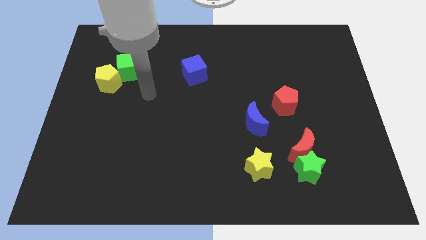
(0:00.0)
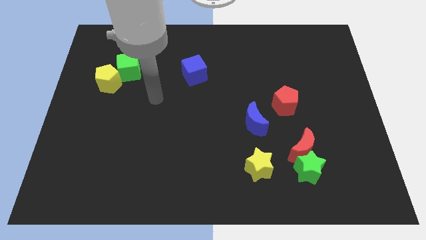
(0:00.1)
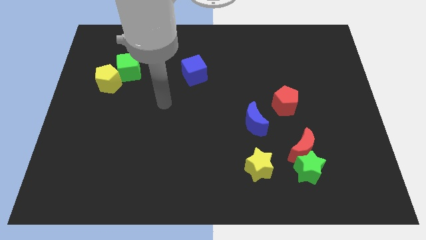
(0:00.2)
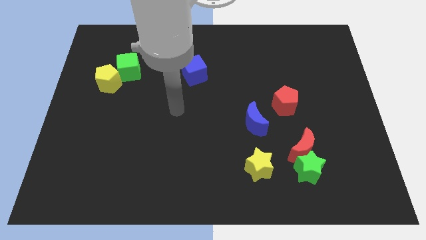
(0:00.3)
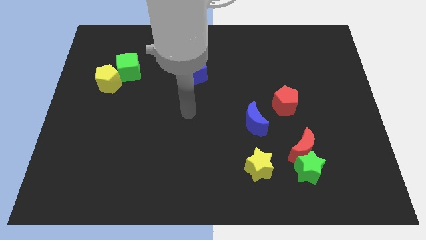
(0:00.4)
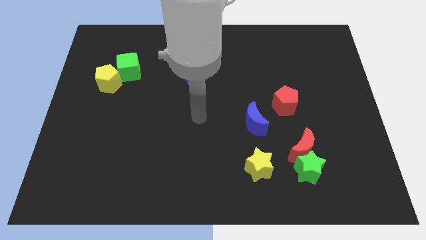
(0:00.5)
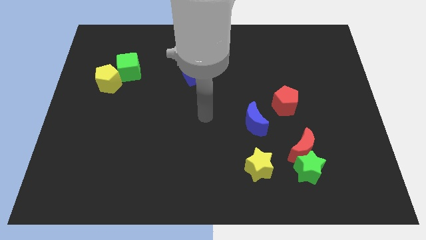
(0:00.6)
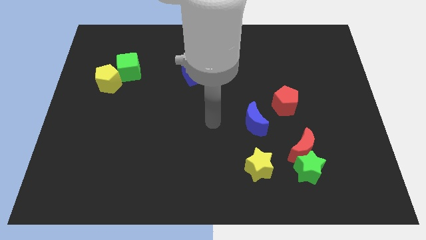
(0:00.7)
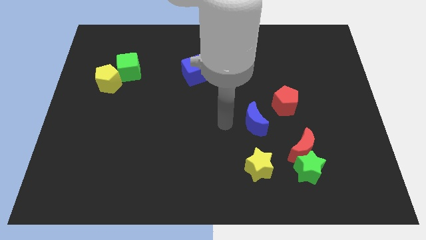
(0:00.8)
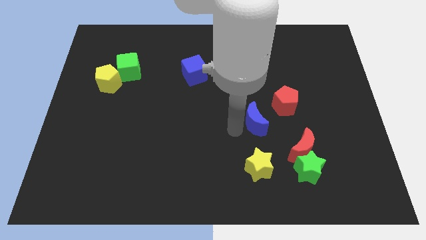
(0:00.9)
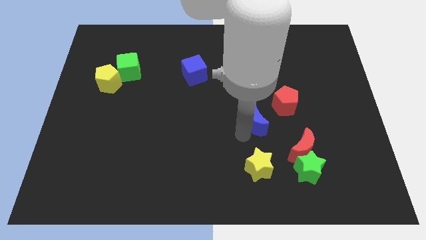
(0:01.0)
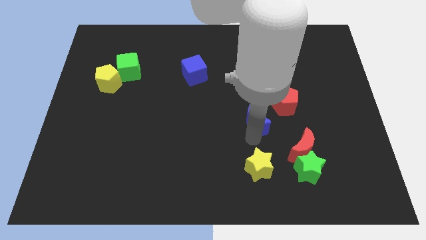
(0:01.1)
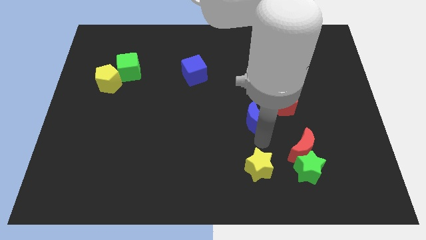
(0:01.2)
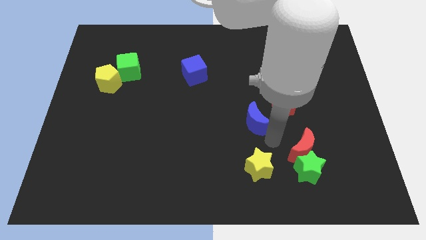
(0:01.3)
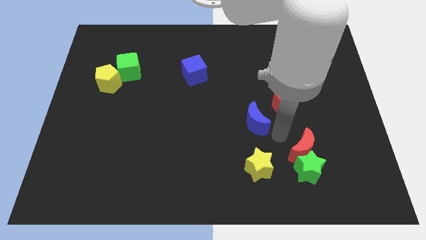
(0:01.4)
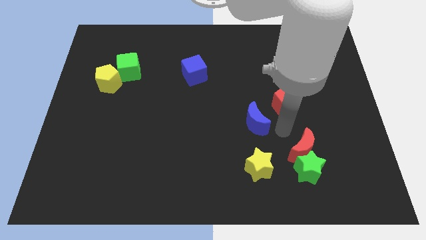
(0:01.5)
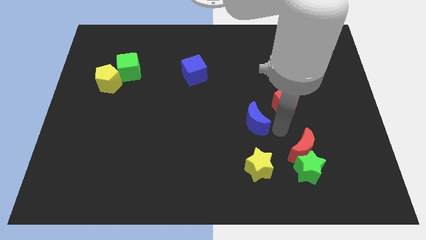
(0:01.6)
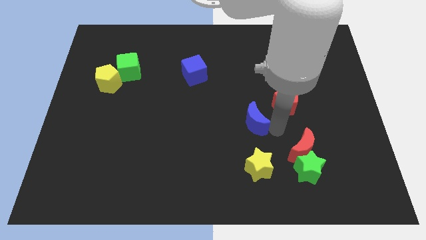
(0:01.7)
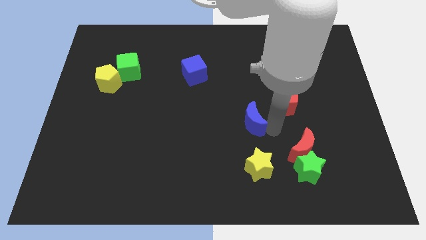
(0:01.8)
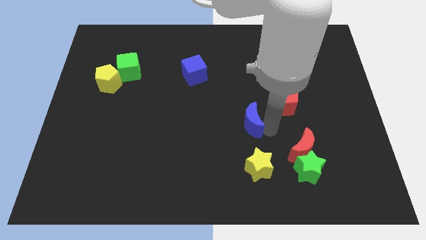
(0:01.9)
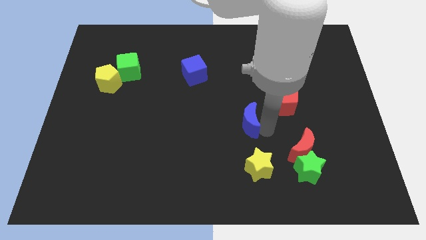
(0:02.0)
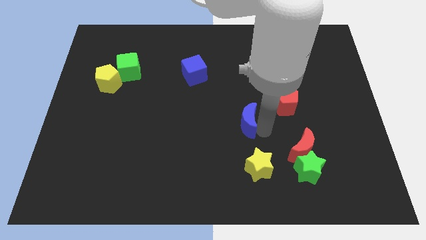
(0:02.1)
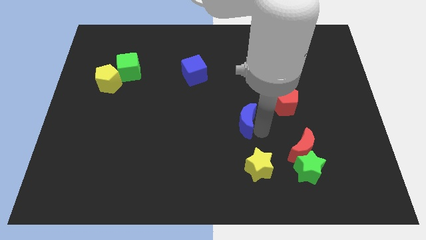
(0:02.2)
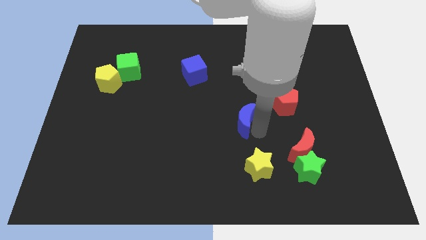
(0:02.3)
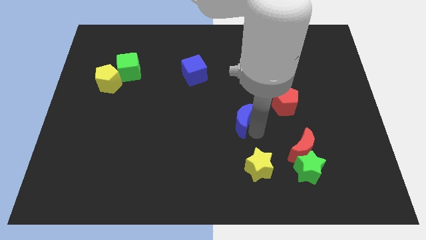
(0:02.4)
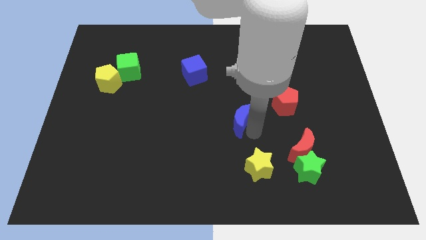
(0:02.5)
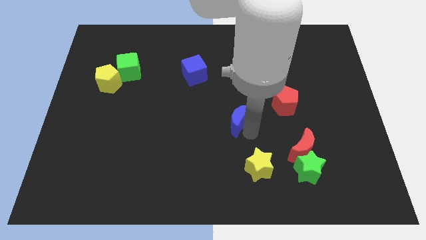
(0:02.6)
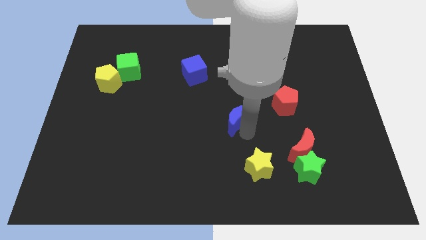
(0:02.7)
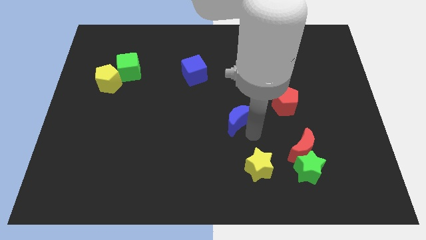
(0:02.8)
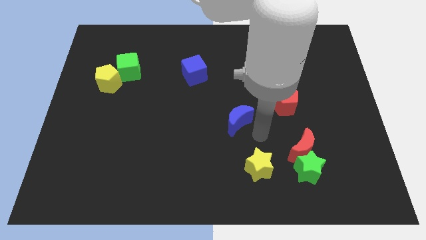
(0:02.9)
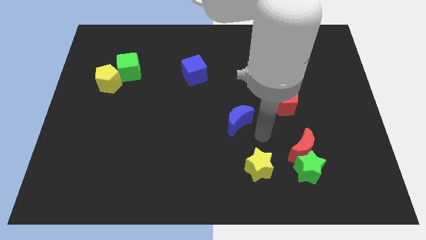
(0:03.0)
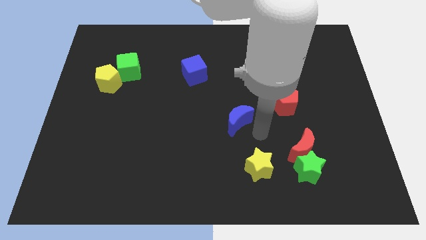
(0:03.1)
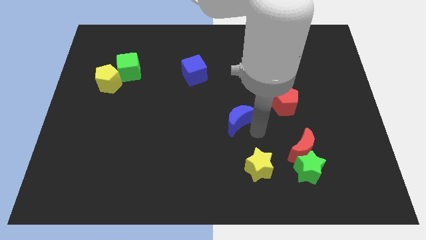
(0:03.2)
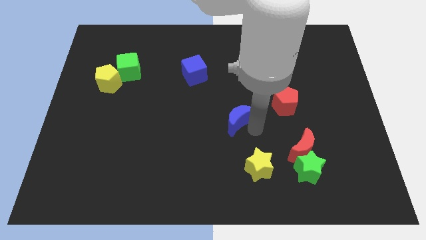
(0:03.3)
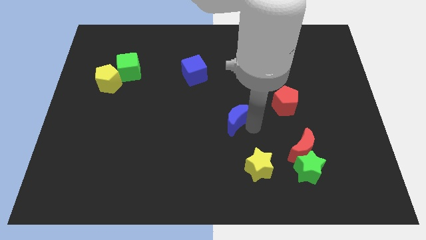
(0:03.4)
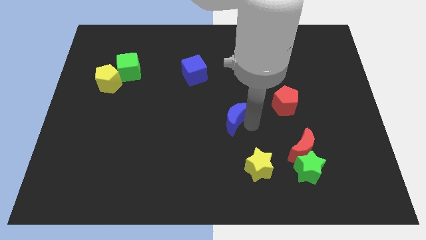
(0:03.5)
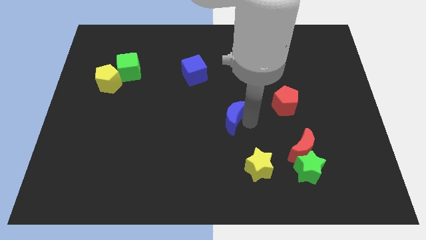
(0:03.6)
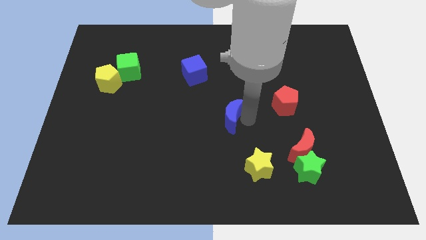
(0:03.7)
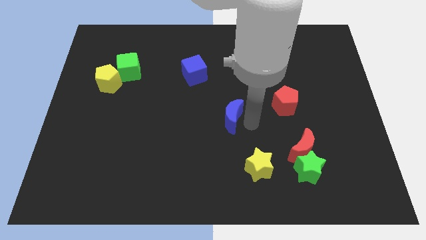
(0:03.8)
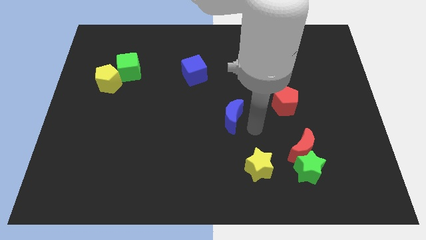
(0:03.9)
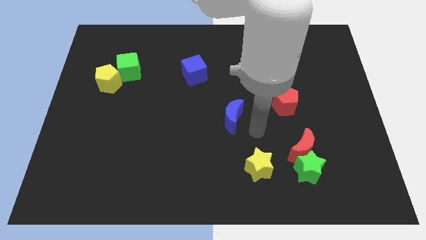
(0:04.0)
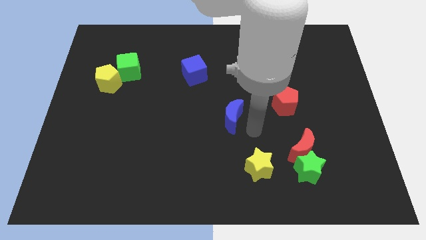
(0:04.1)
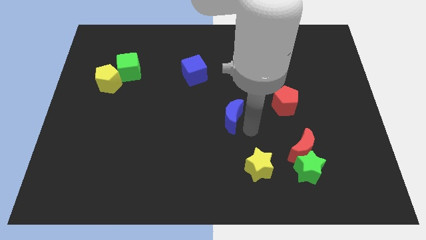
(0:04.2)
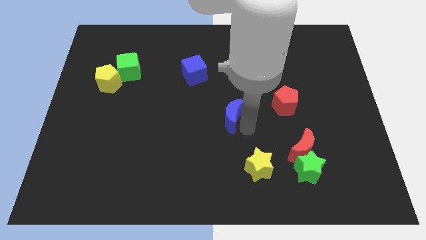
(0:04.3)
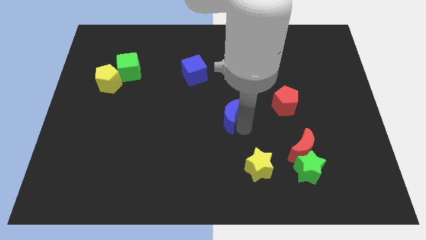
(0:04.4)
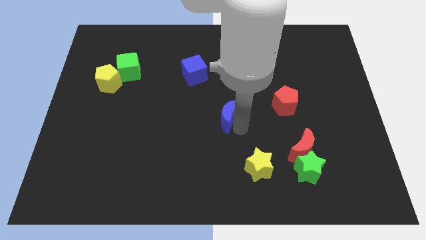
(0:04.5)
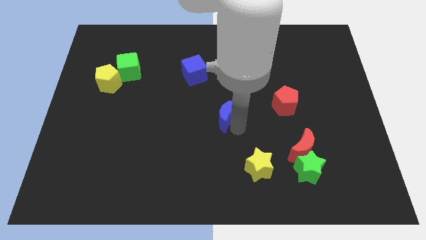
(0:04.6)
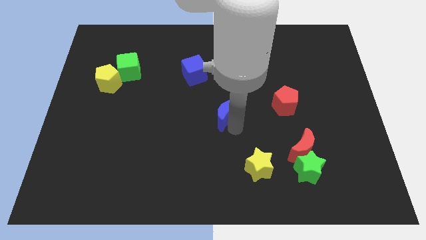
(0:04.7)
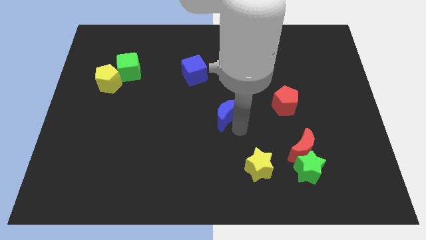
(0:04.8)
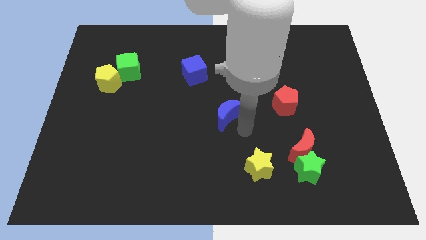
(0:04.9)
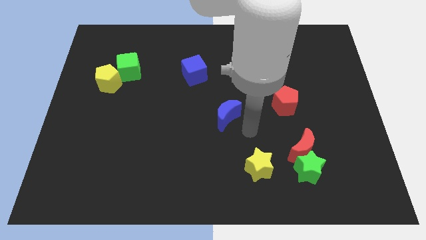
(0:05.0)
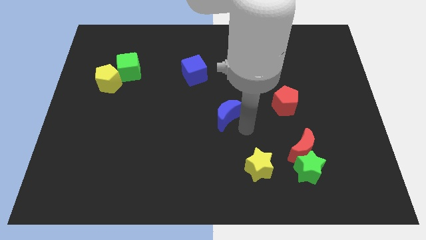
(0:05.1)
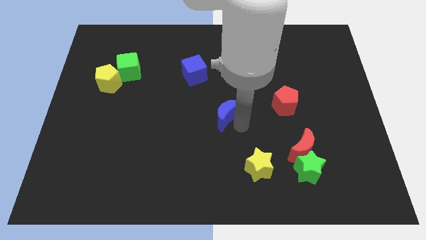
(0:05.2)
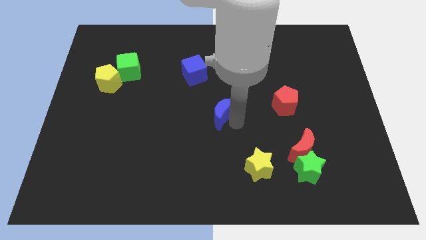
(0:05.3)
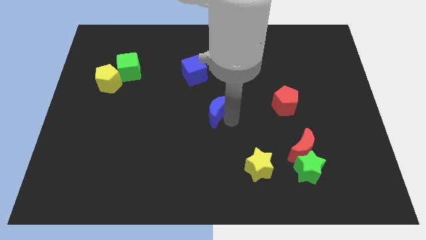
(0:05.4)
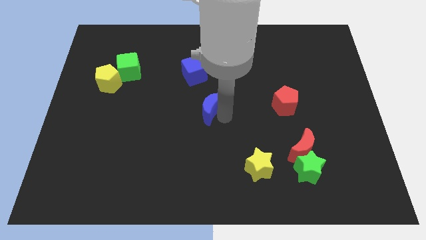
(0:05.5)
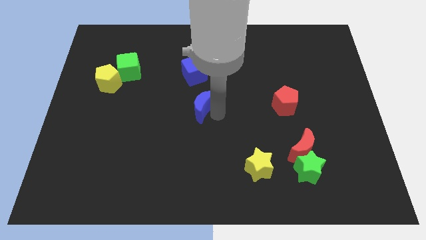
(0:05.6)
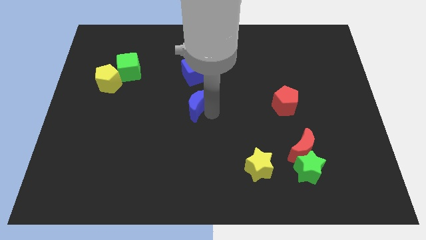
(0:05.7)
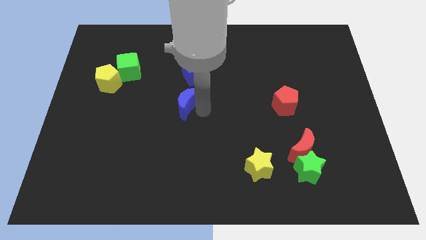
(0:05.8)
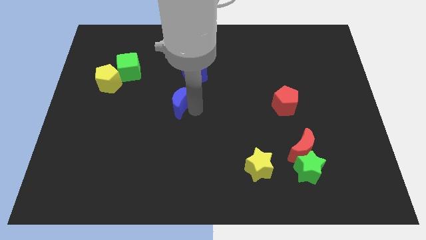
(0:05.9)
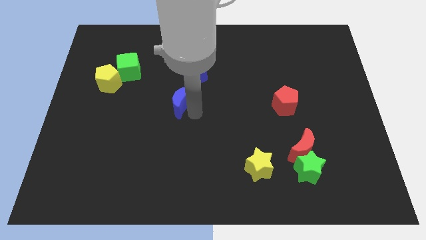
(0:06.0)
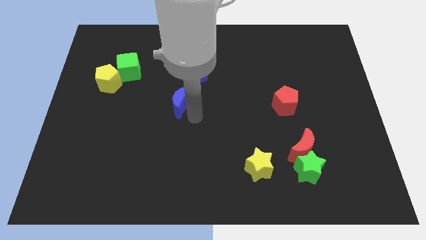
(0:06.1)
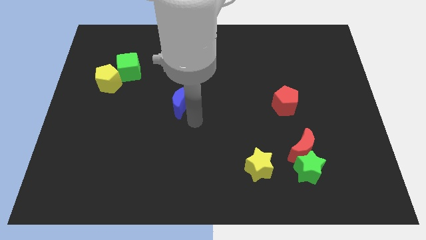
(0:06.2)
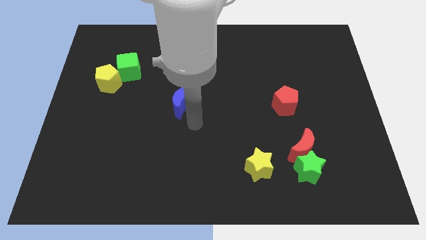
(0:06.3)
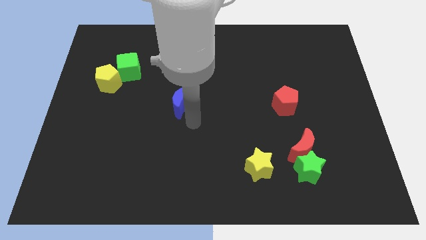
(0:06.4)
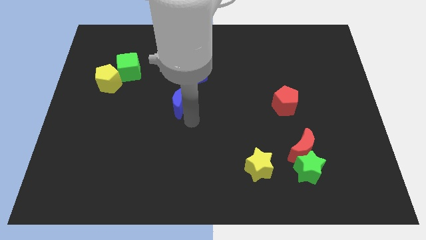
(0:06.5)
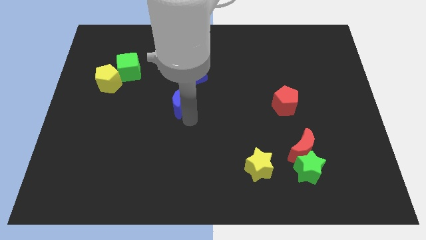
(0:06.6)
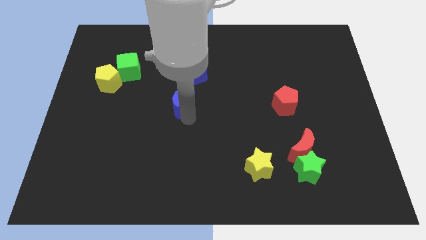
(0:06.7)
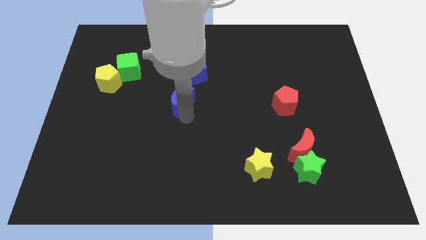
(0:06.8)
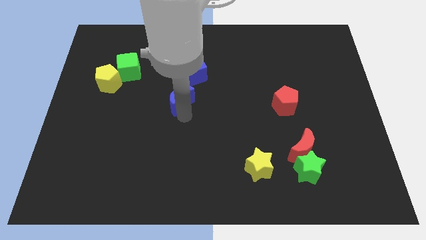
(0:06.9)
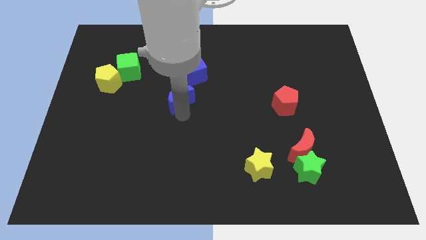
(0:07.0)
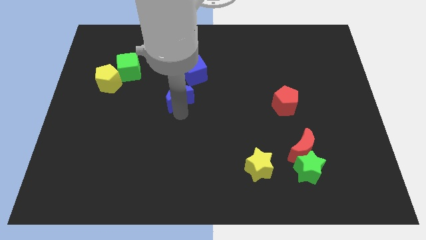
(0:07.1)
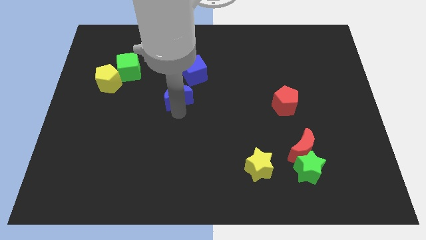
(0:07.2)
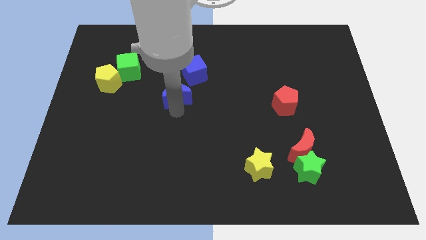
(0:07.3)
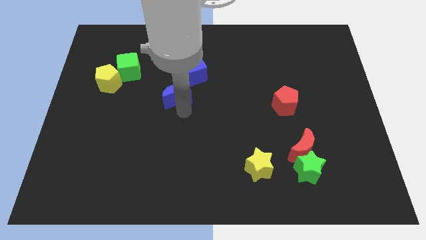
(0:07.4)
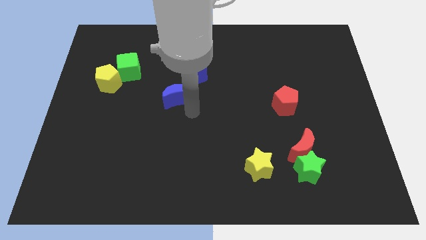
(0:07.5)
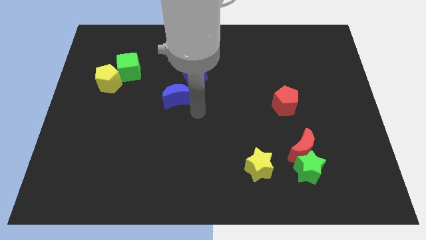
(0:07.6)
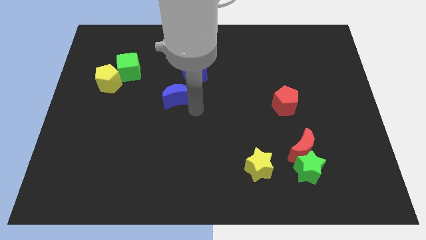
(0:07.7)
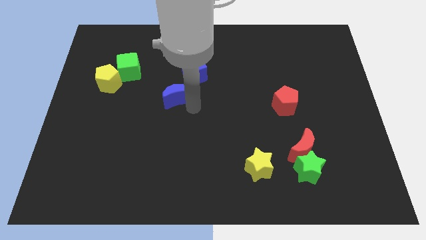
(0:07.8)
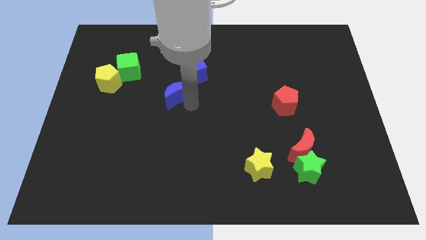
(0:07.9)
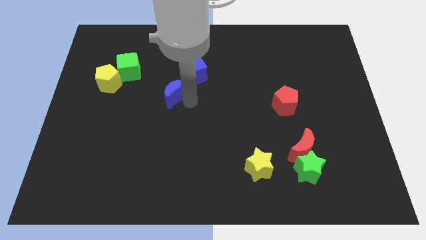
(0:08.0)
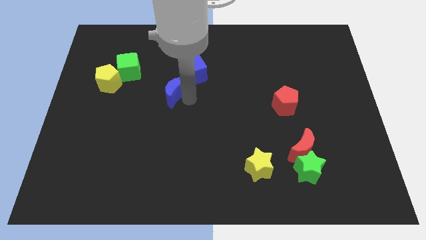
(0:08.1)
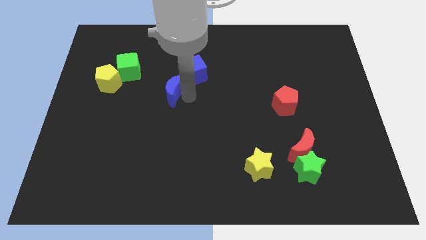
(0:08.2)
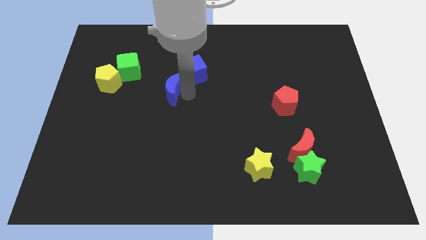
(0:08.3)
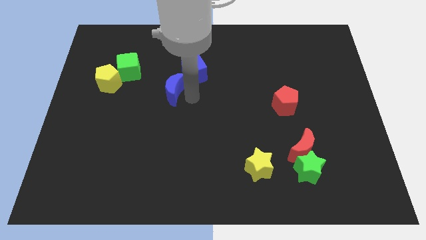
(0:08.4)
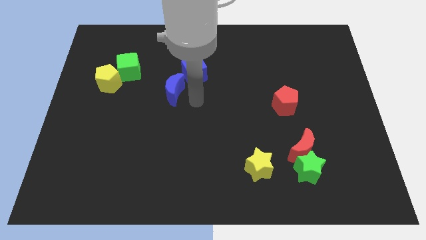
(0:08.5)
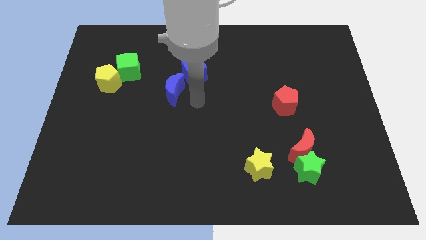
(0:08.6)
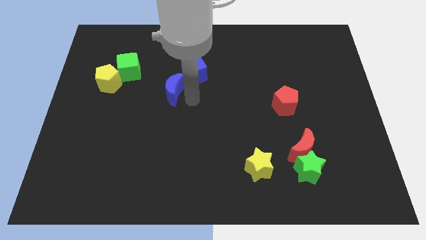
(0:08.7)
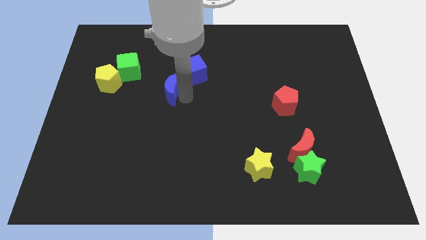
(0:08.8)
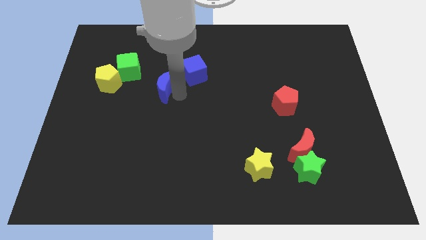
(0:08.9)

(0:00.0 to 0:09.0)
slide the blue moon to the right side of the yellow pentagon
